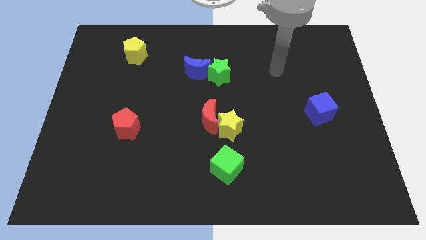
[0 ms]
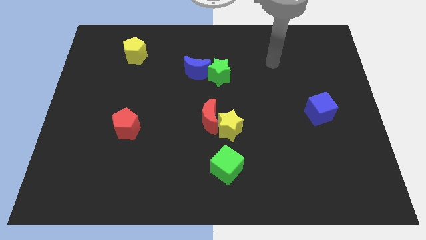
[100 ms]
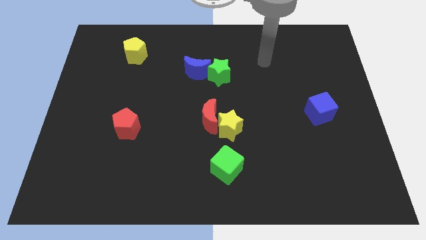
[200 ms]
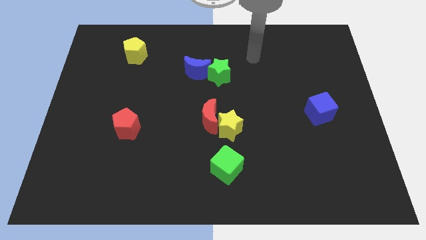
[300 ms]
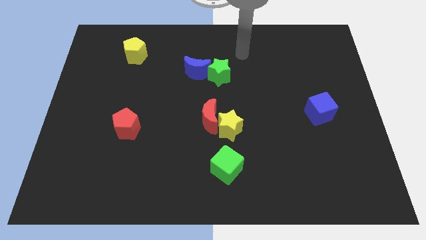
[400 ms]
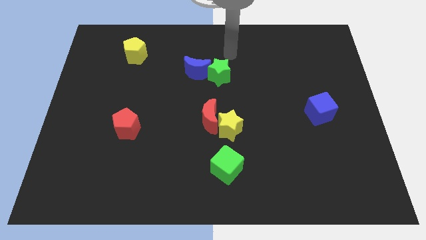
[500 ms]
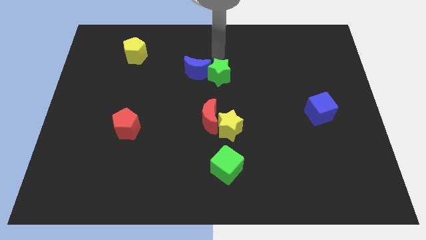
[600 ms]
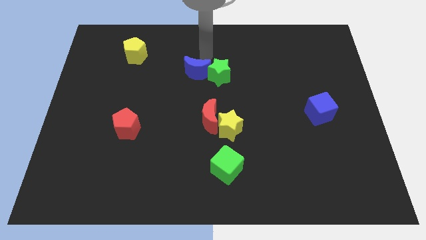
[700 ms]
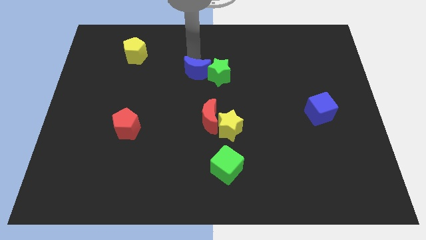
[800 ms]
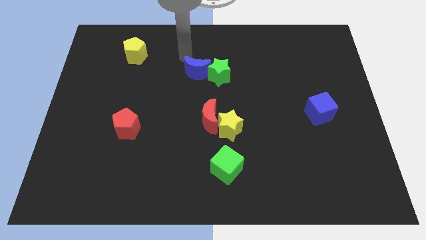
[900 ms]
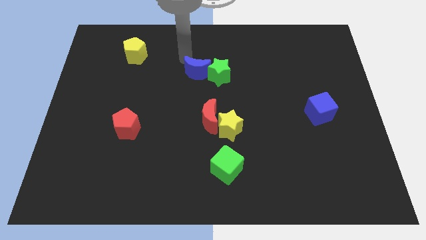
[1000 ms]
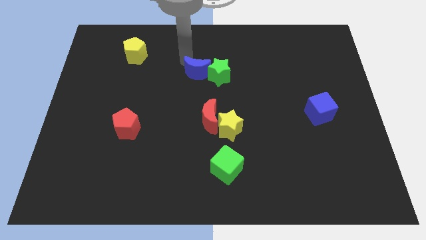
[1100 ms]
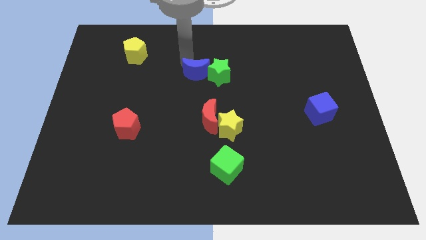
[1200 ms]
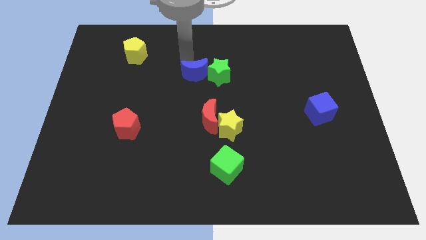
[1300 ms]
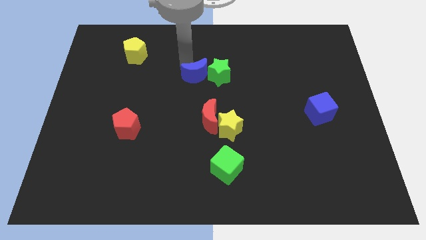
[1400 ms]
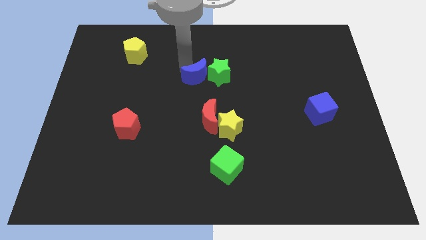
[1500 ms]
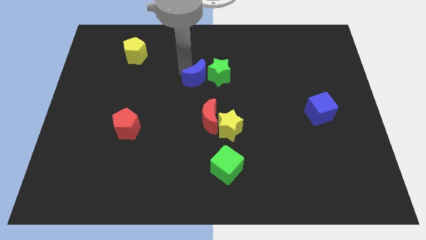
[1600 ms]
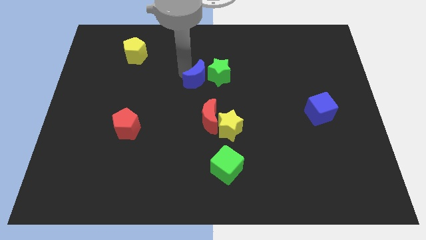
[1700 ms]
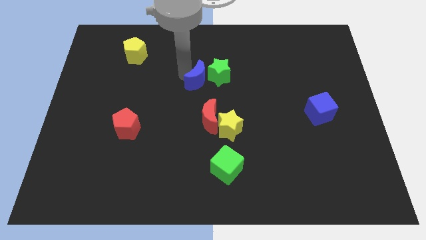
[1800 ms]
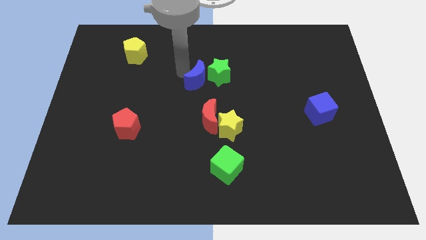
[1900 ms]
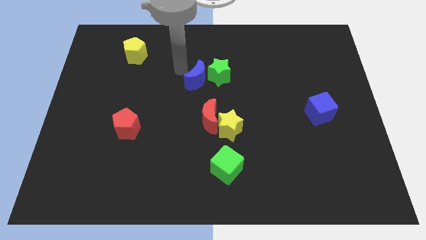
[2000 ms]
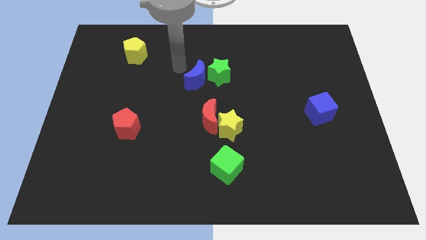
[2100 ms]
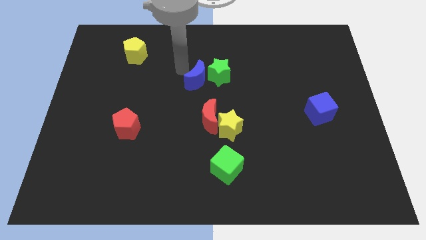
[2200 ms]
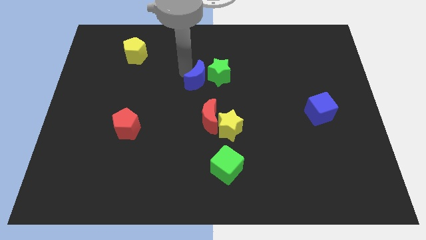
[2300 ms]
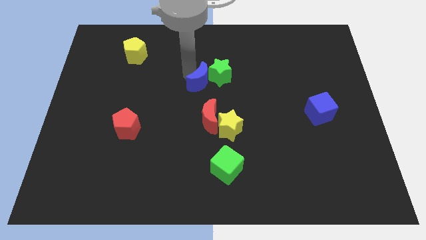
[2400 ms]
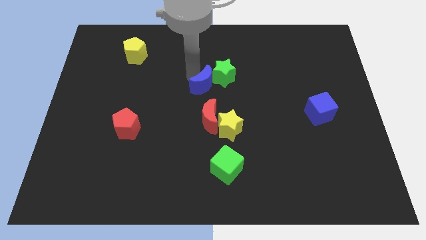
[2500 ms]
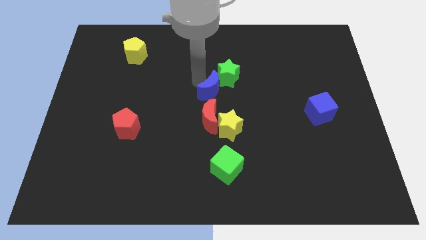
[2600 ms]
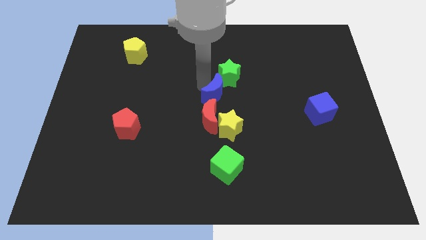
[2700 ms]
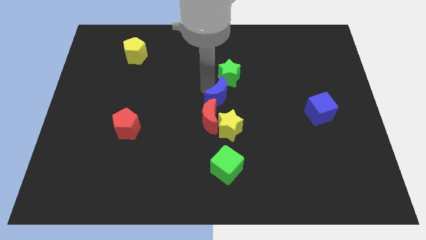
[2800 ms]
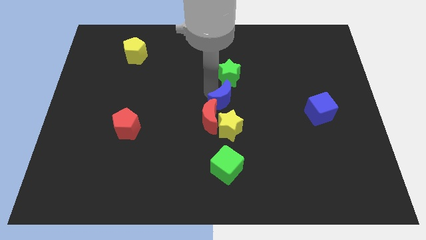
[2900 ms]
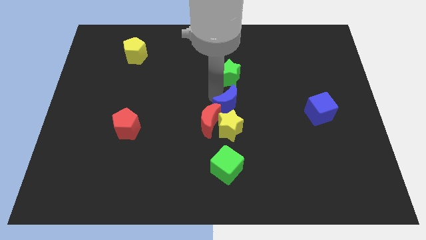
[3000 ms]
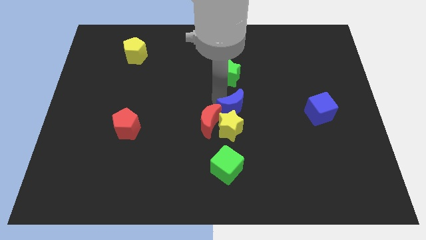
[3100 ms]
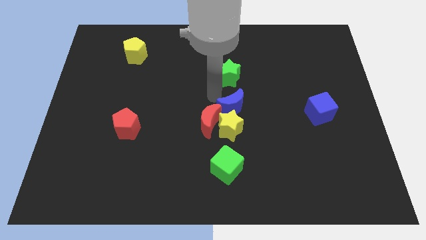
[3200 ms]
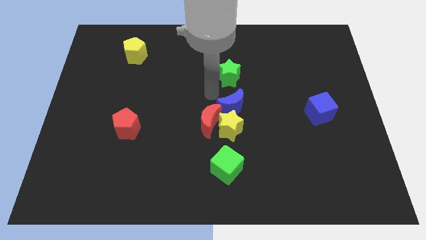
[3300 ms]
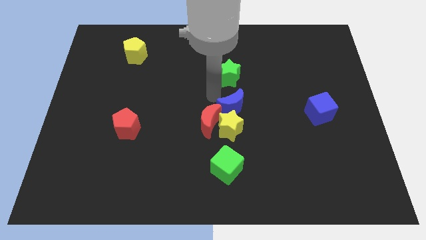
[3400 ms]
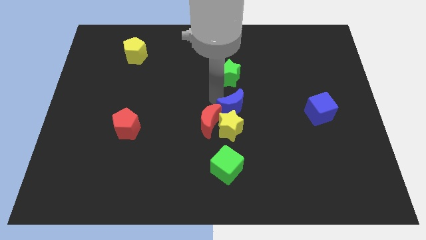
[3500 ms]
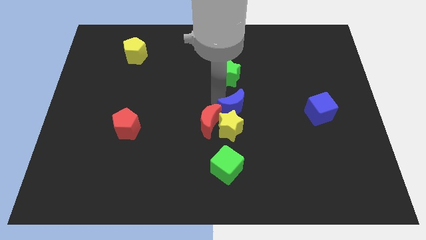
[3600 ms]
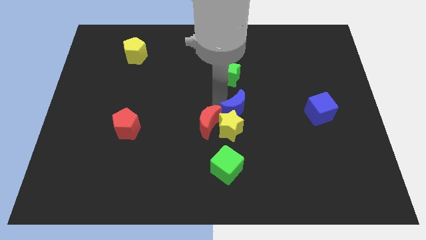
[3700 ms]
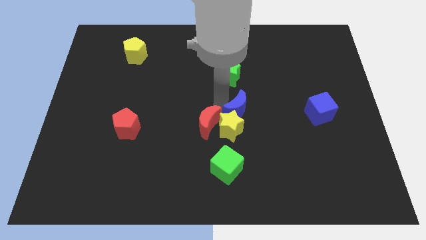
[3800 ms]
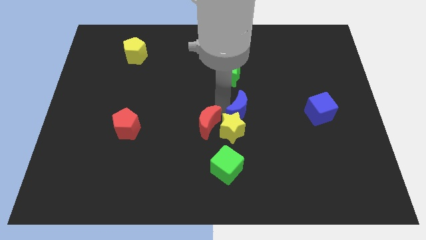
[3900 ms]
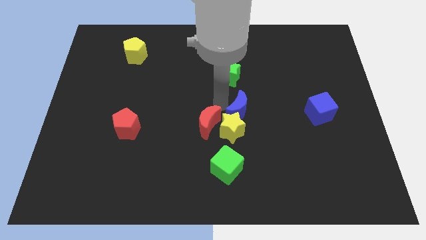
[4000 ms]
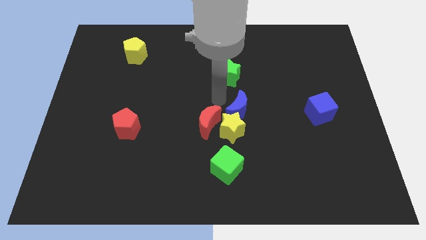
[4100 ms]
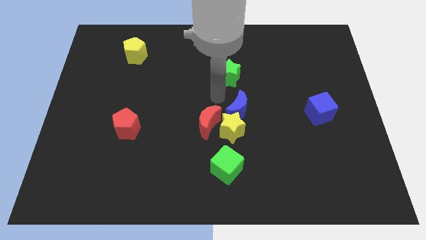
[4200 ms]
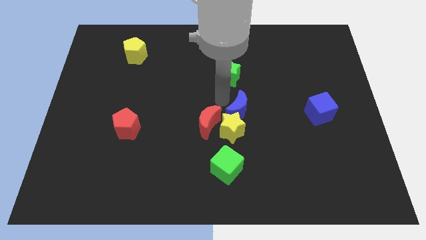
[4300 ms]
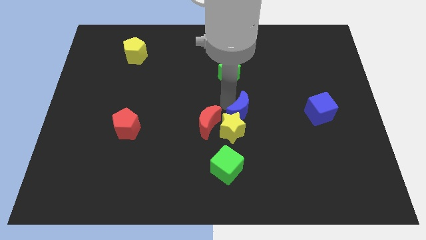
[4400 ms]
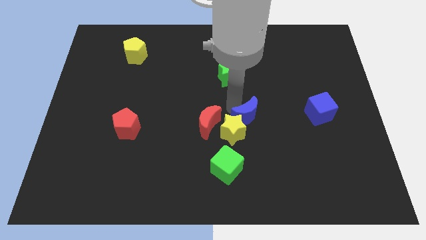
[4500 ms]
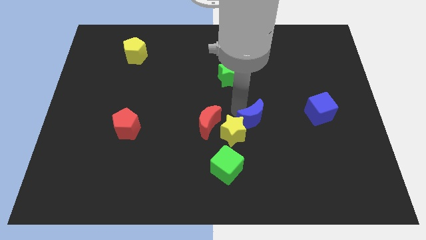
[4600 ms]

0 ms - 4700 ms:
move the blue moon downwards and to the right diagonally

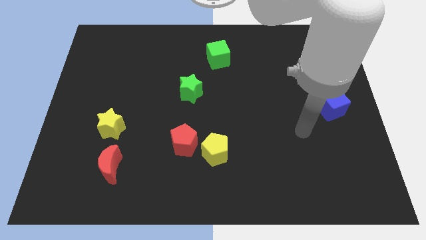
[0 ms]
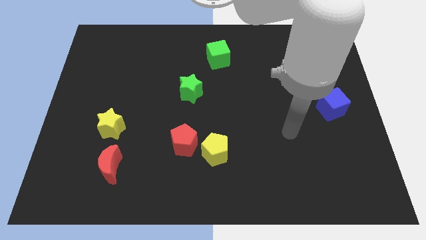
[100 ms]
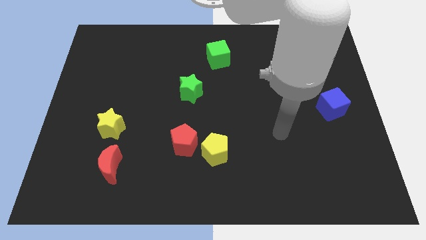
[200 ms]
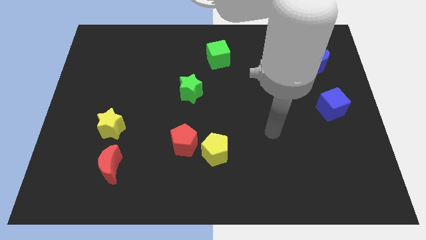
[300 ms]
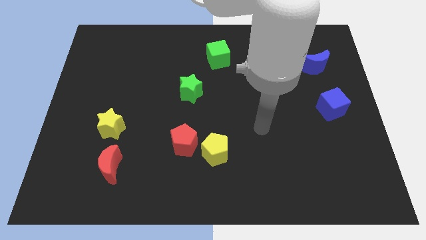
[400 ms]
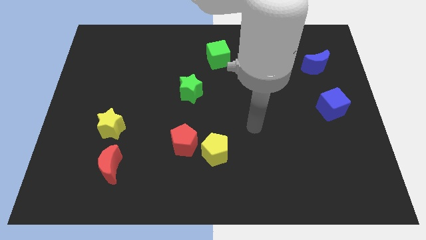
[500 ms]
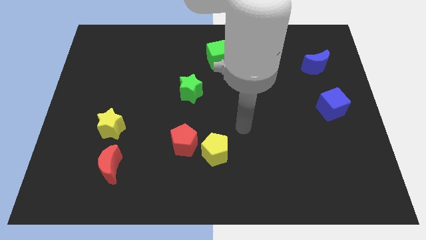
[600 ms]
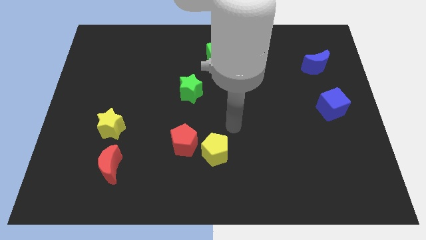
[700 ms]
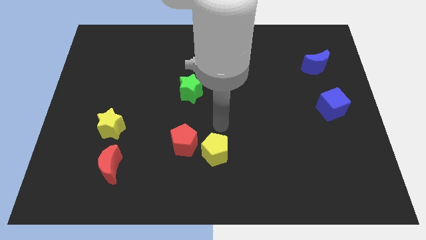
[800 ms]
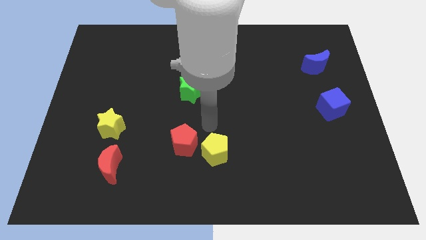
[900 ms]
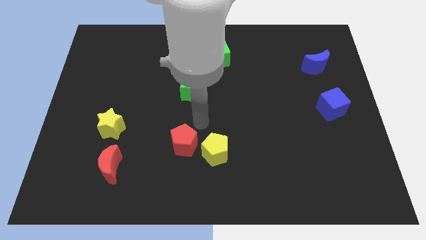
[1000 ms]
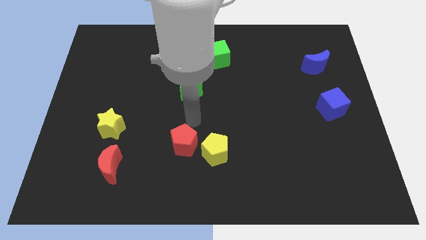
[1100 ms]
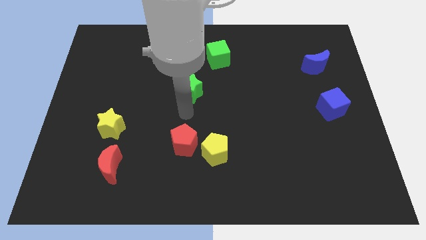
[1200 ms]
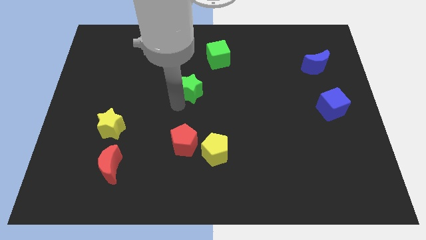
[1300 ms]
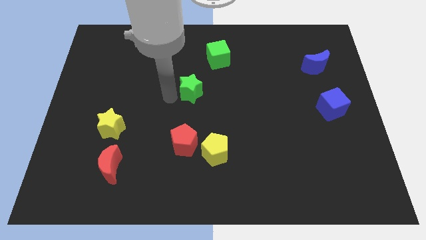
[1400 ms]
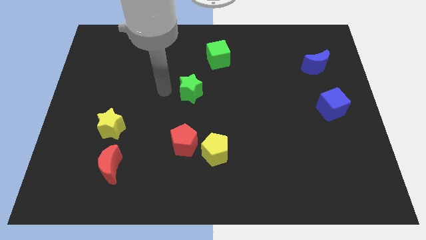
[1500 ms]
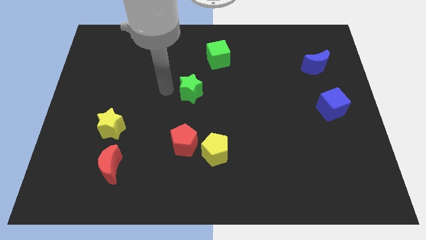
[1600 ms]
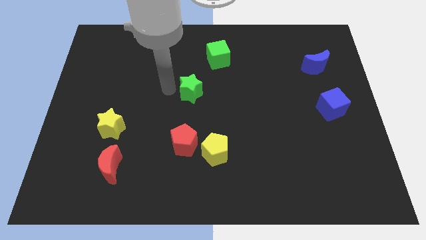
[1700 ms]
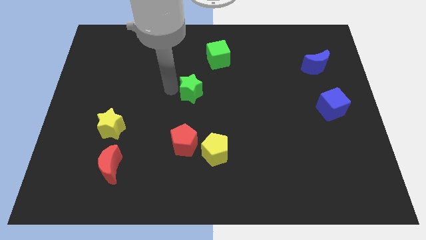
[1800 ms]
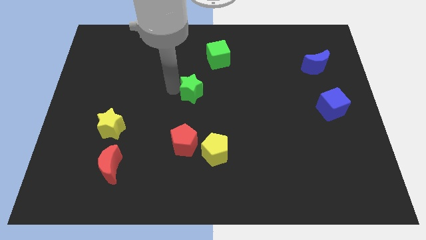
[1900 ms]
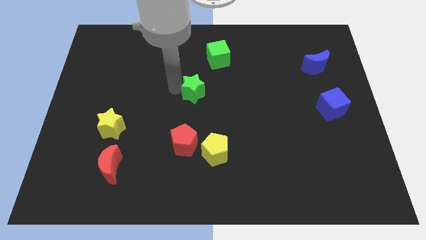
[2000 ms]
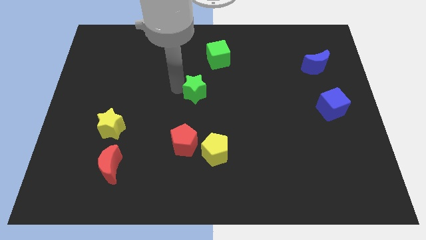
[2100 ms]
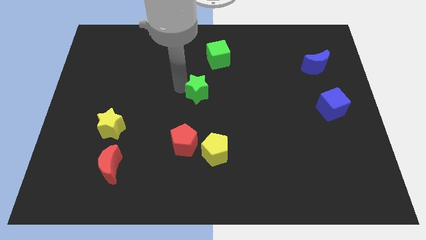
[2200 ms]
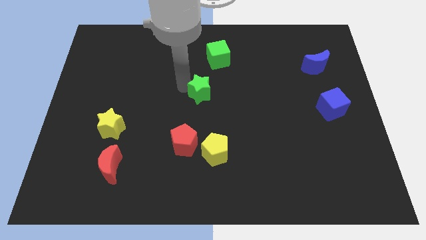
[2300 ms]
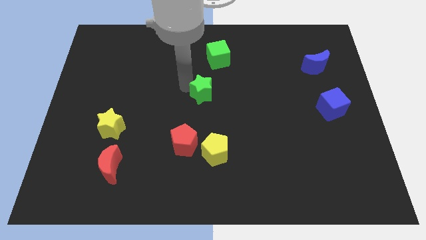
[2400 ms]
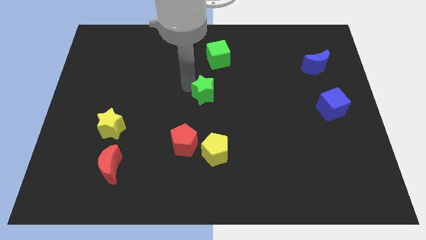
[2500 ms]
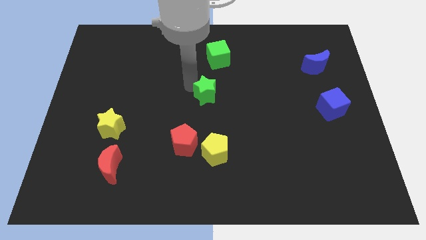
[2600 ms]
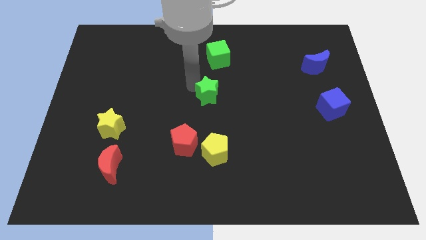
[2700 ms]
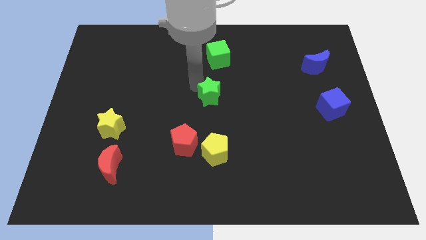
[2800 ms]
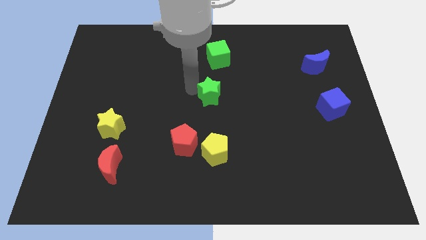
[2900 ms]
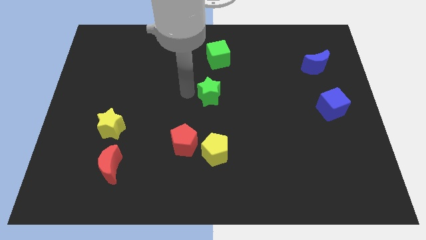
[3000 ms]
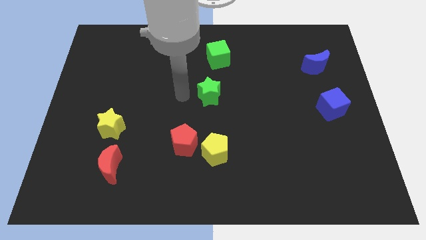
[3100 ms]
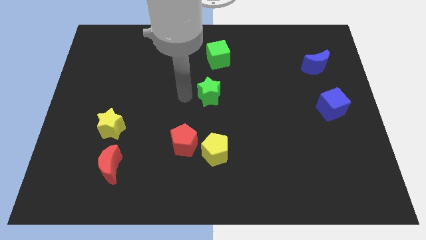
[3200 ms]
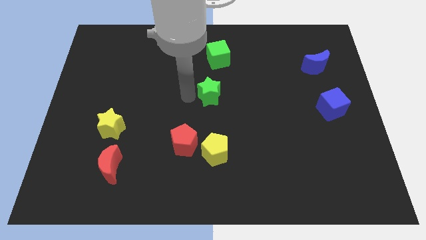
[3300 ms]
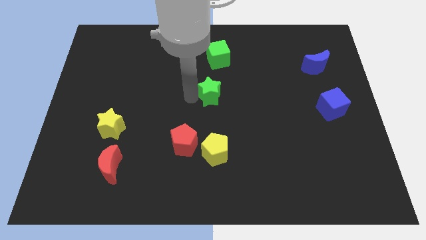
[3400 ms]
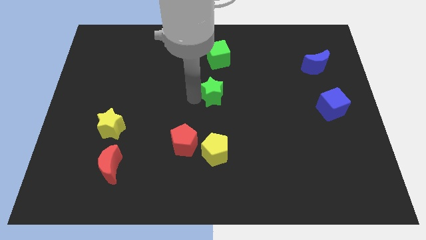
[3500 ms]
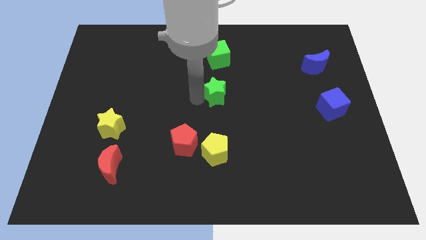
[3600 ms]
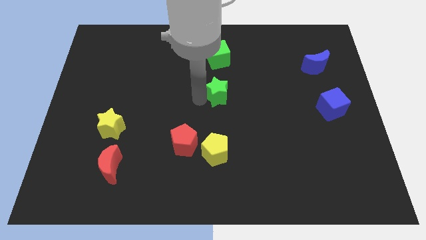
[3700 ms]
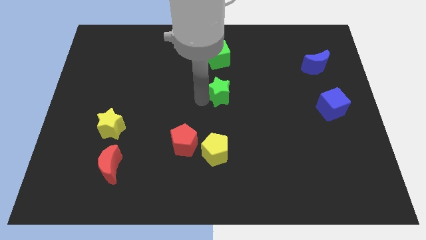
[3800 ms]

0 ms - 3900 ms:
slightly slide the green star right
